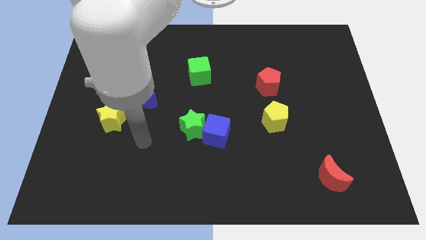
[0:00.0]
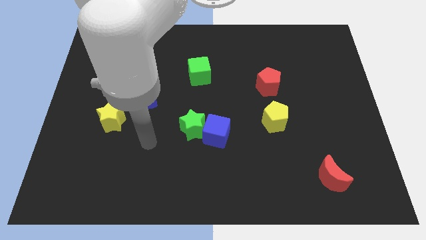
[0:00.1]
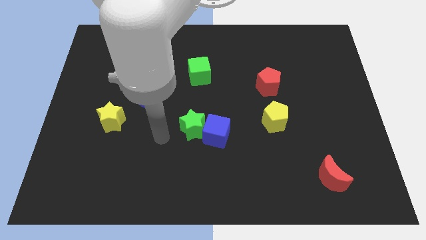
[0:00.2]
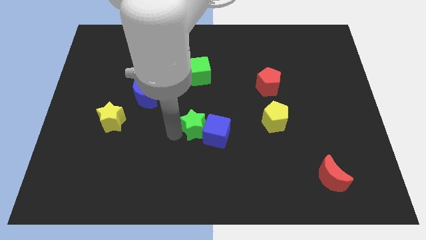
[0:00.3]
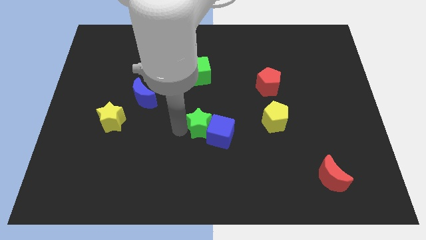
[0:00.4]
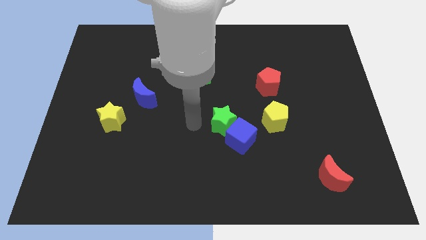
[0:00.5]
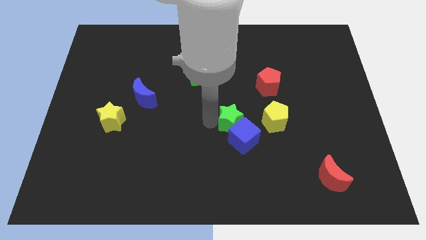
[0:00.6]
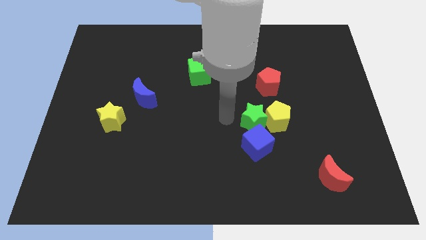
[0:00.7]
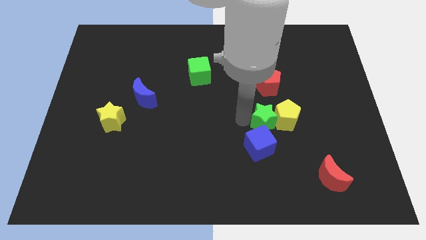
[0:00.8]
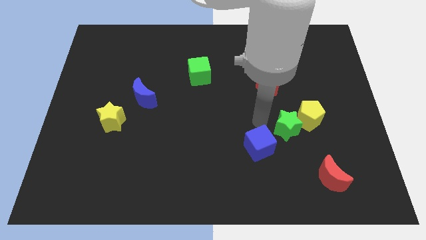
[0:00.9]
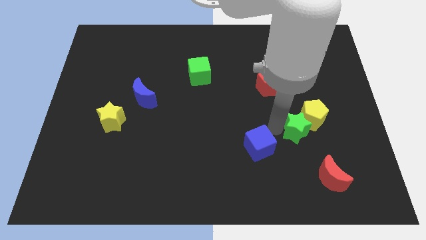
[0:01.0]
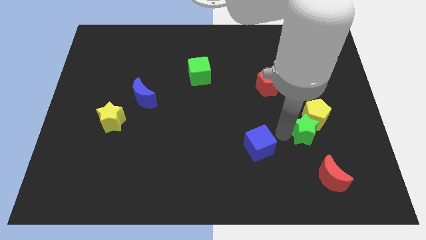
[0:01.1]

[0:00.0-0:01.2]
separate the blue cube from the green star

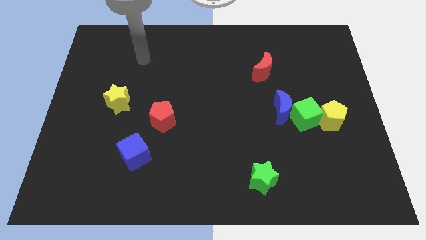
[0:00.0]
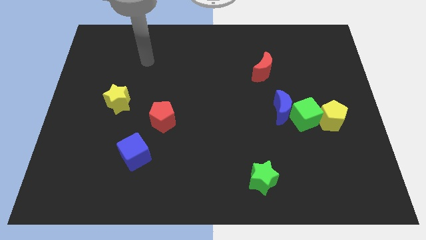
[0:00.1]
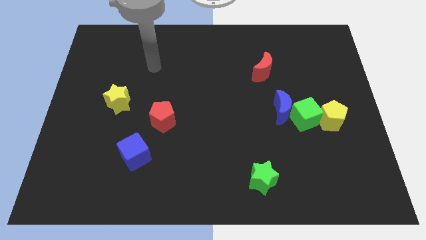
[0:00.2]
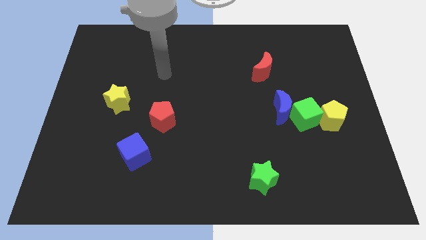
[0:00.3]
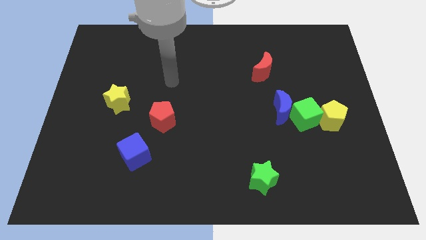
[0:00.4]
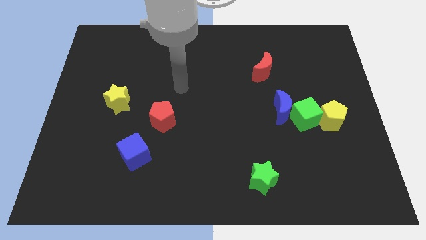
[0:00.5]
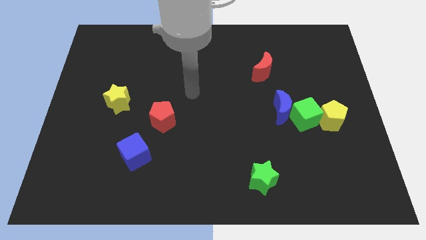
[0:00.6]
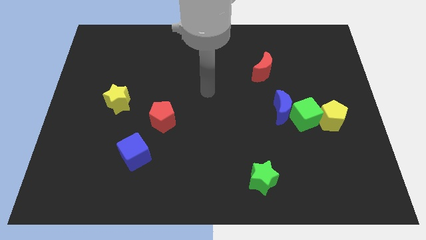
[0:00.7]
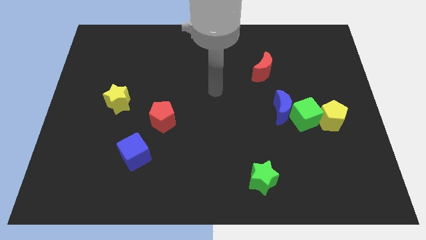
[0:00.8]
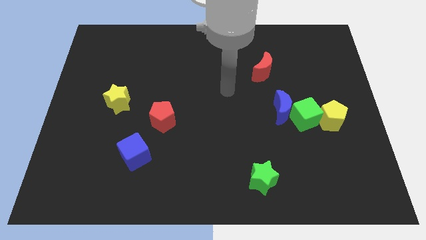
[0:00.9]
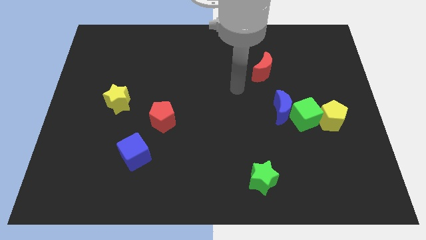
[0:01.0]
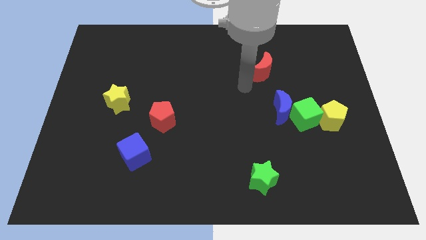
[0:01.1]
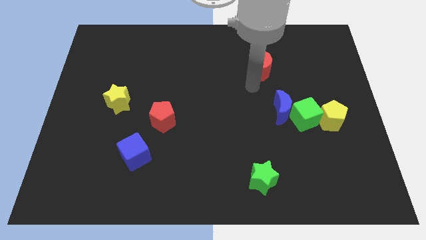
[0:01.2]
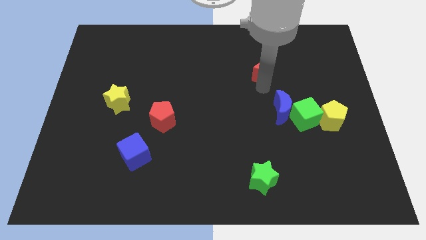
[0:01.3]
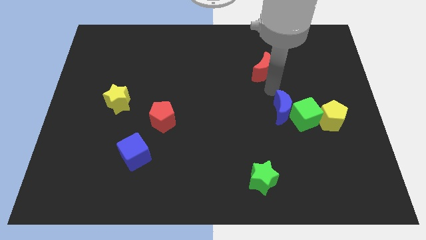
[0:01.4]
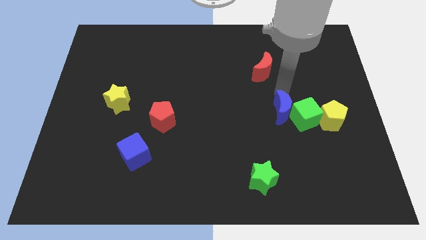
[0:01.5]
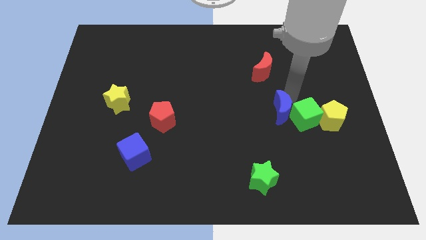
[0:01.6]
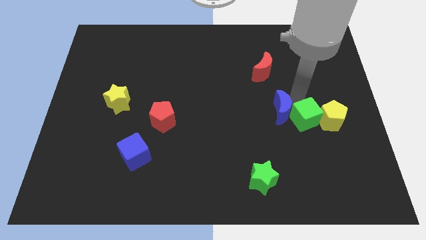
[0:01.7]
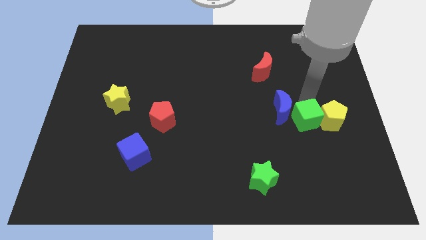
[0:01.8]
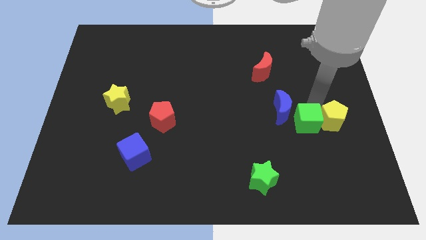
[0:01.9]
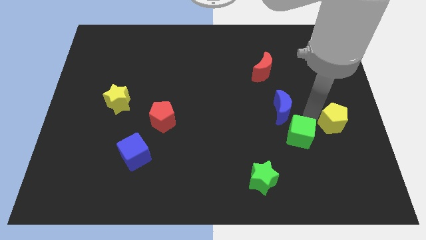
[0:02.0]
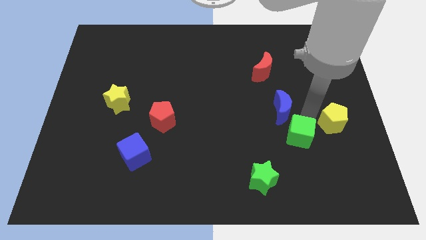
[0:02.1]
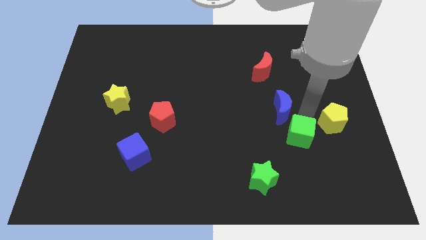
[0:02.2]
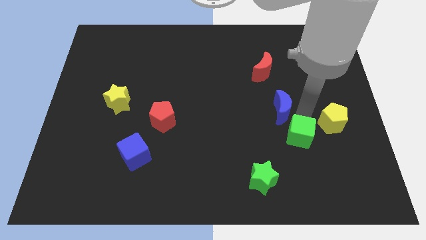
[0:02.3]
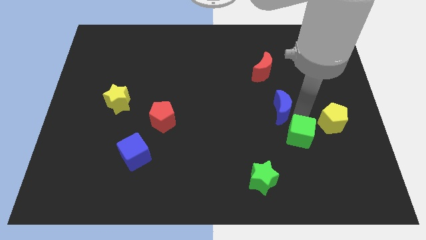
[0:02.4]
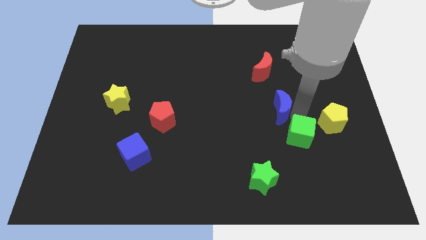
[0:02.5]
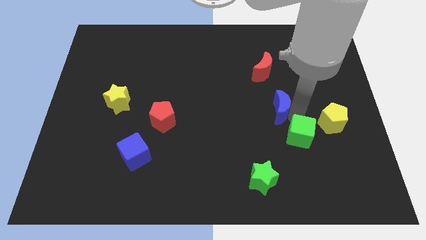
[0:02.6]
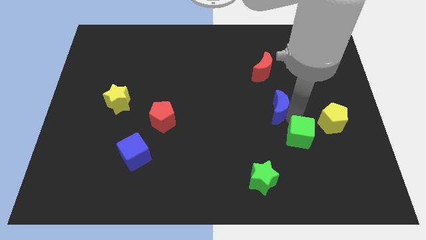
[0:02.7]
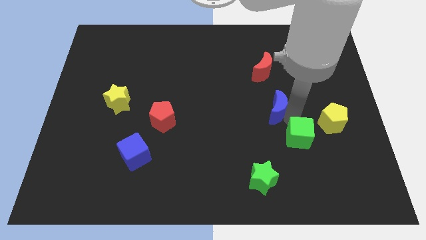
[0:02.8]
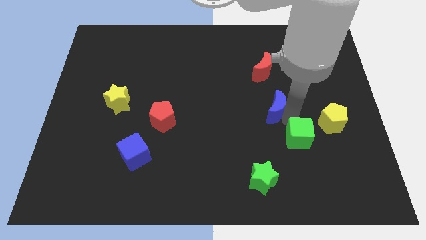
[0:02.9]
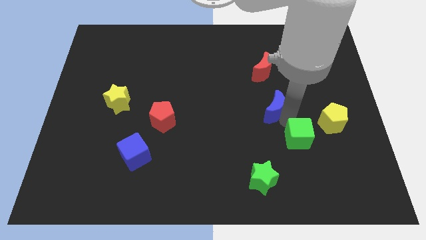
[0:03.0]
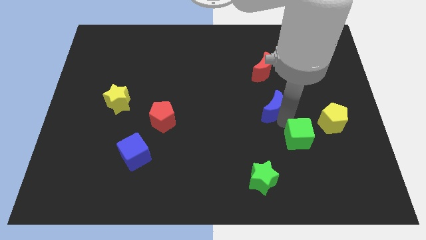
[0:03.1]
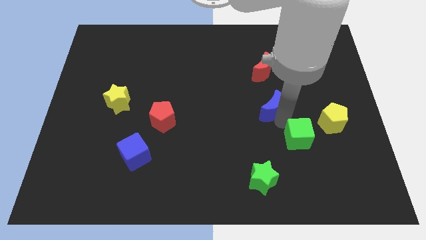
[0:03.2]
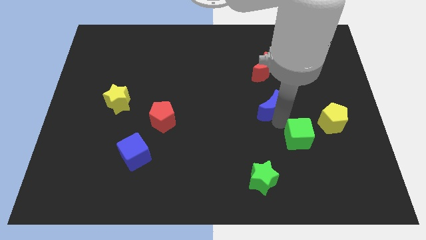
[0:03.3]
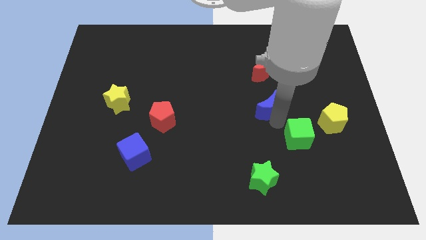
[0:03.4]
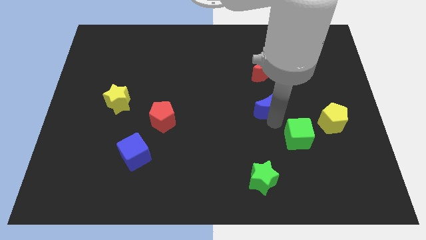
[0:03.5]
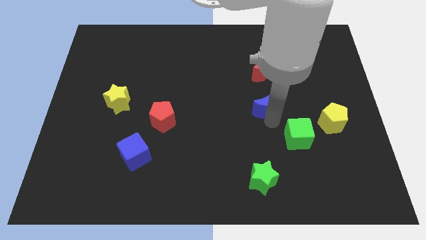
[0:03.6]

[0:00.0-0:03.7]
pull the blue moon apart from the green cube

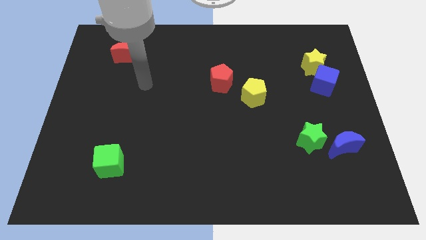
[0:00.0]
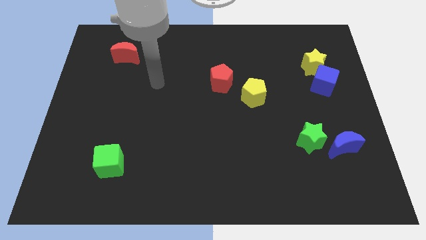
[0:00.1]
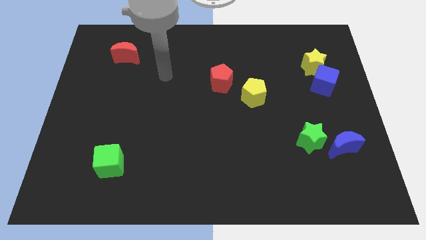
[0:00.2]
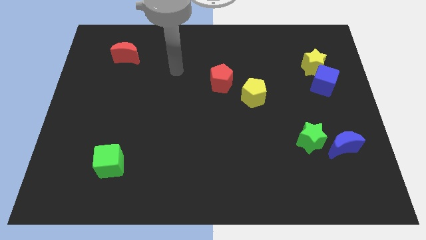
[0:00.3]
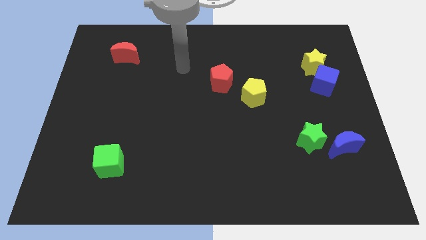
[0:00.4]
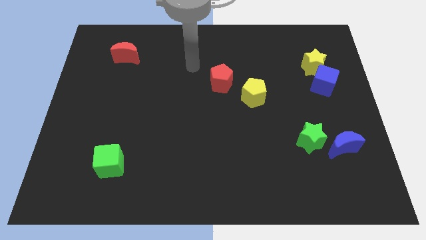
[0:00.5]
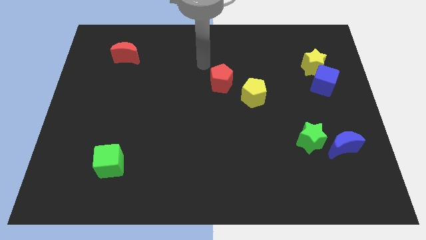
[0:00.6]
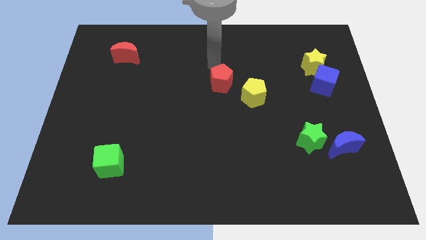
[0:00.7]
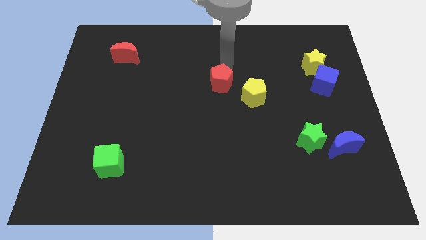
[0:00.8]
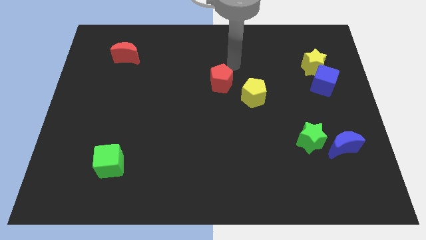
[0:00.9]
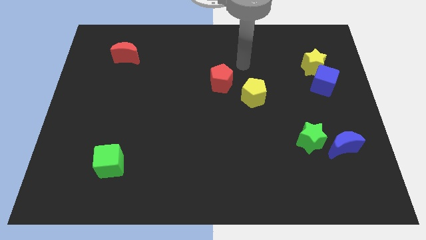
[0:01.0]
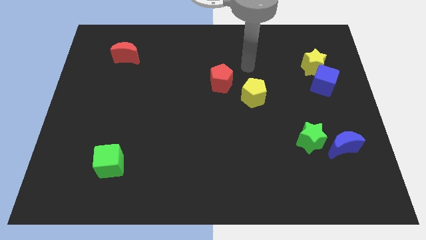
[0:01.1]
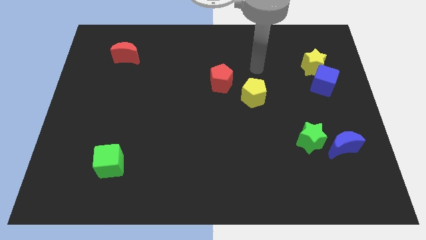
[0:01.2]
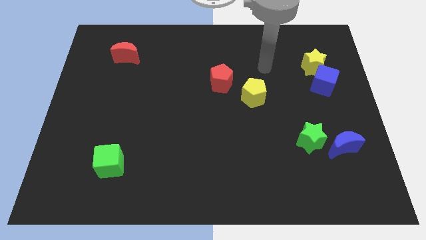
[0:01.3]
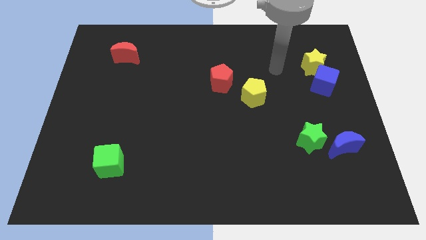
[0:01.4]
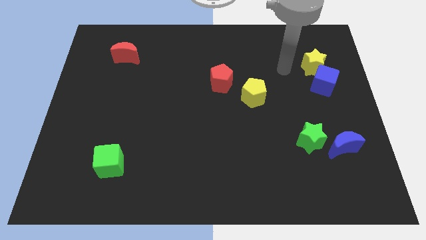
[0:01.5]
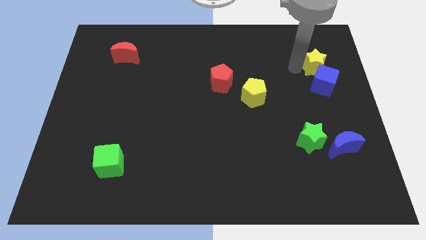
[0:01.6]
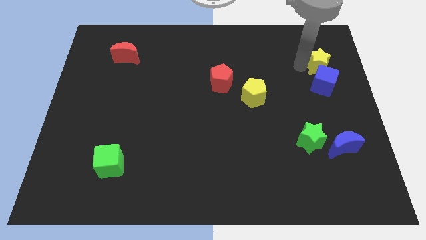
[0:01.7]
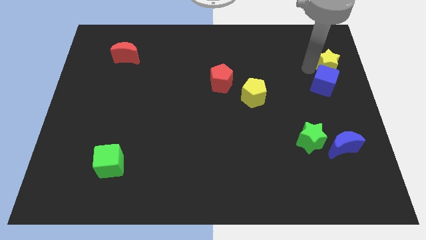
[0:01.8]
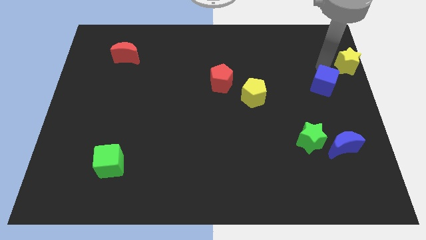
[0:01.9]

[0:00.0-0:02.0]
separate the blue cube from the yellow star

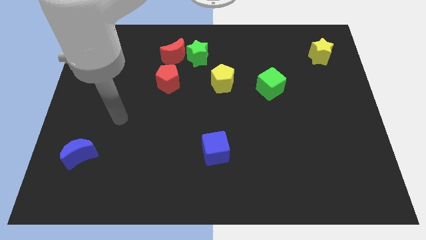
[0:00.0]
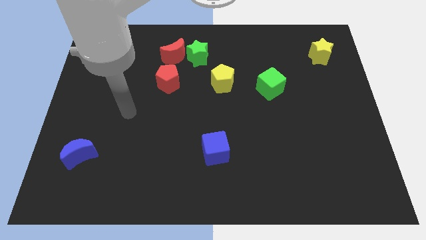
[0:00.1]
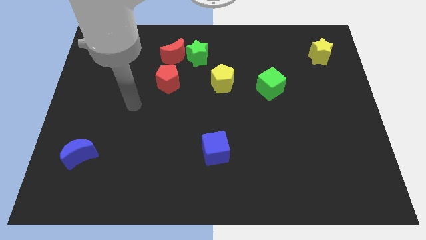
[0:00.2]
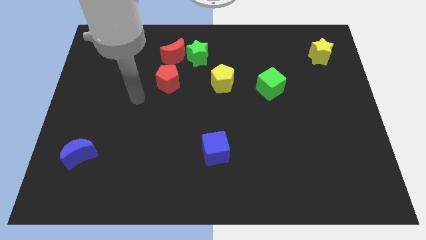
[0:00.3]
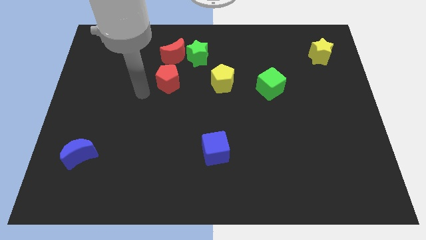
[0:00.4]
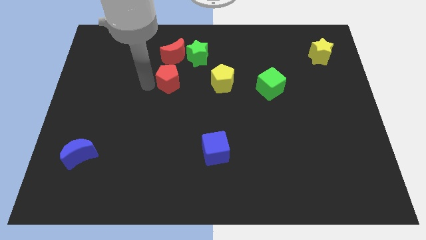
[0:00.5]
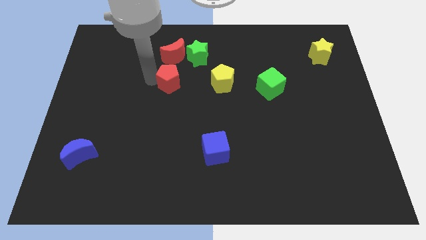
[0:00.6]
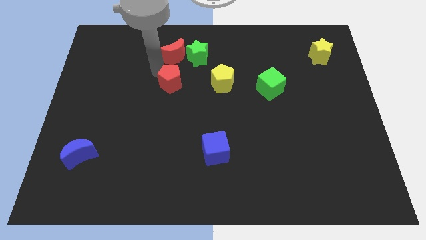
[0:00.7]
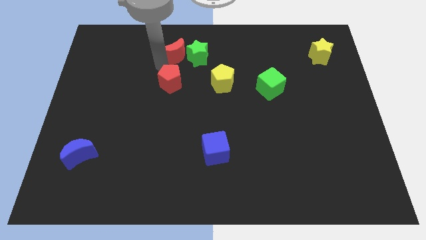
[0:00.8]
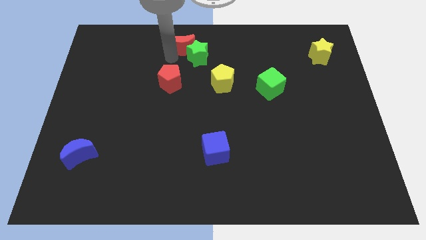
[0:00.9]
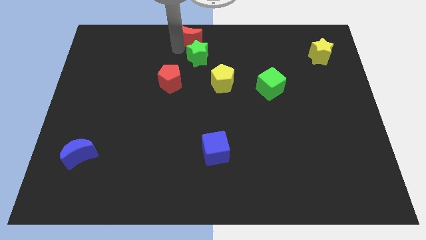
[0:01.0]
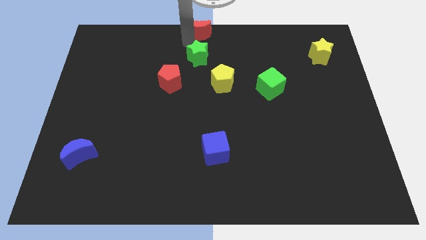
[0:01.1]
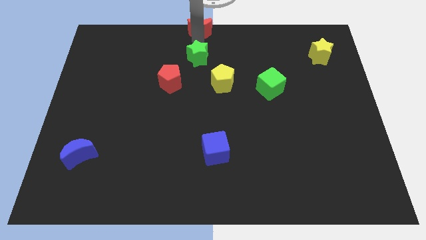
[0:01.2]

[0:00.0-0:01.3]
separate the green star from the red moon

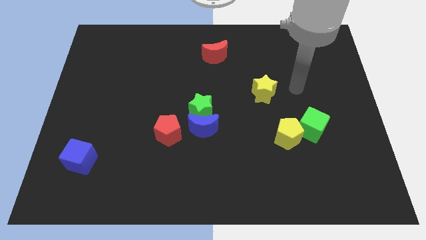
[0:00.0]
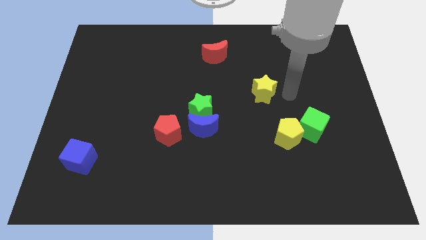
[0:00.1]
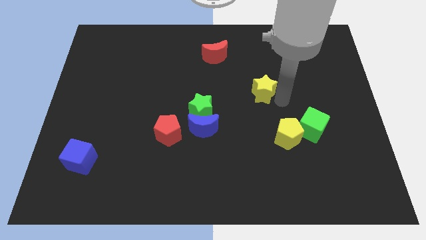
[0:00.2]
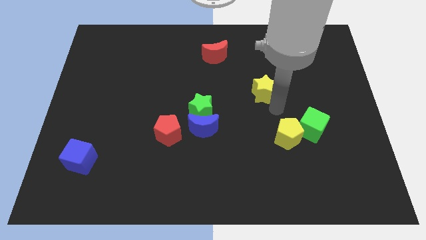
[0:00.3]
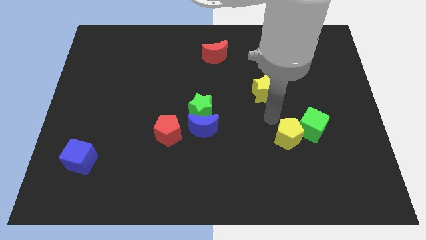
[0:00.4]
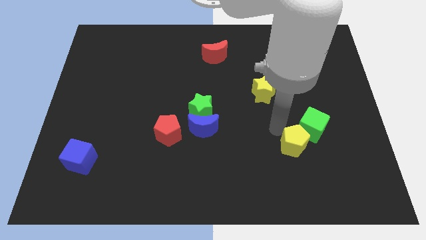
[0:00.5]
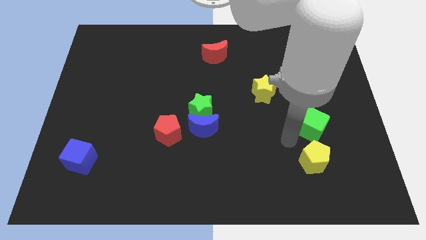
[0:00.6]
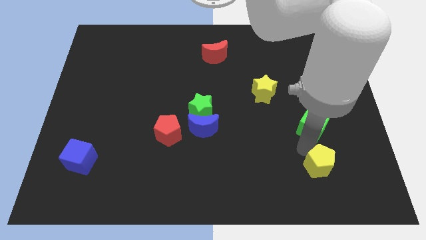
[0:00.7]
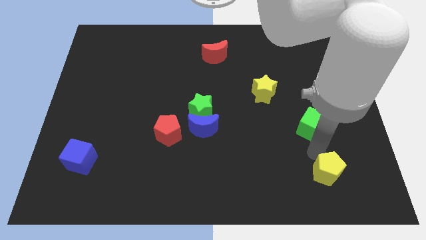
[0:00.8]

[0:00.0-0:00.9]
separate the green cube from the yellow pentagon

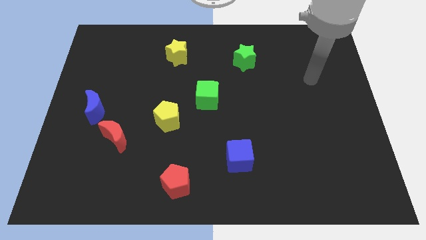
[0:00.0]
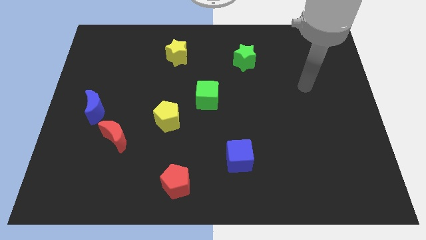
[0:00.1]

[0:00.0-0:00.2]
pull the red moon apart from the blue moon
